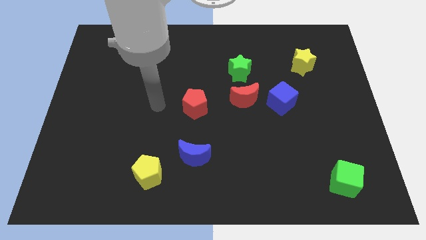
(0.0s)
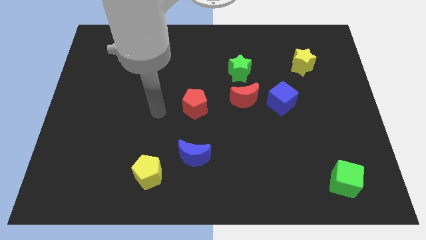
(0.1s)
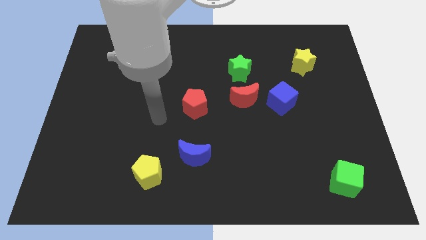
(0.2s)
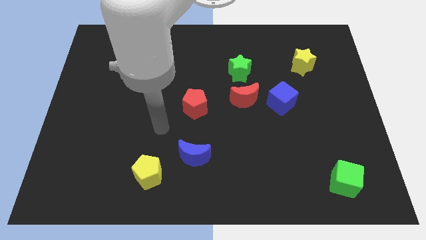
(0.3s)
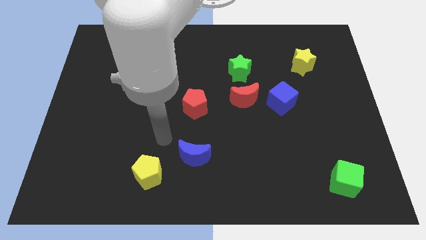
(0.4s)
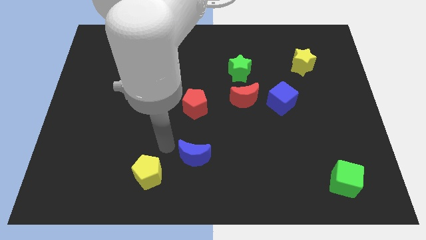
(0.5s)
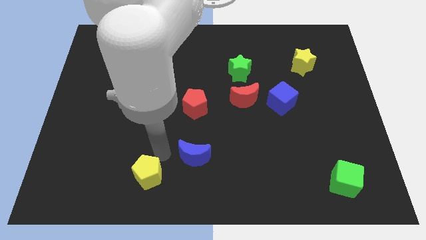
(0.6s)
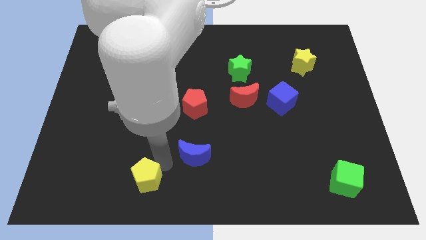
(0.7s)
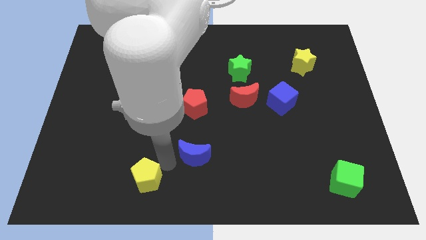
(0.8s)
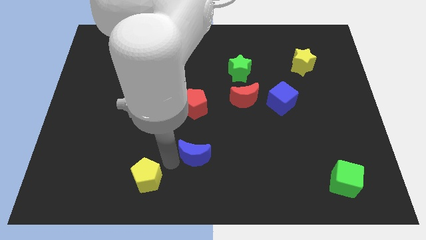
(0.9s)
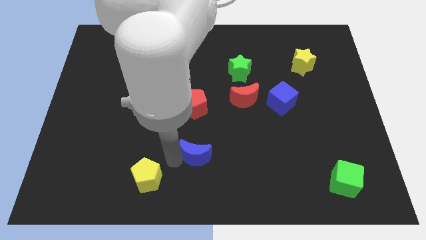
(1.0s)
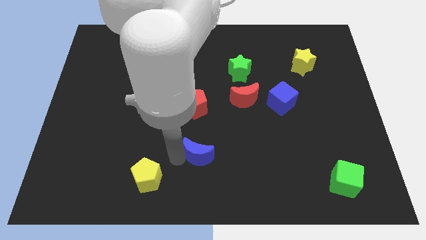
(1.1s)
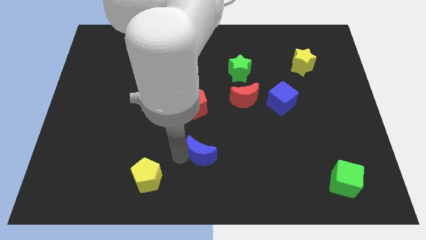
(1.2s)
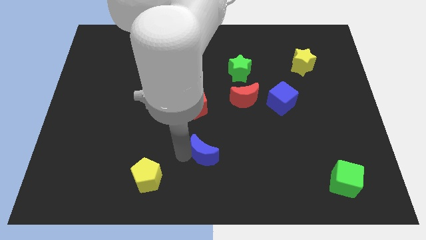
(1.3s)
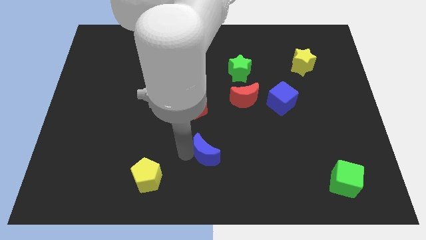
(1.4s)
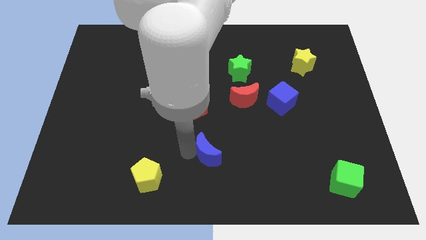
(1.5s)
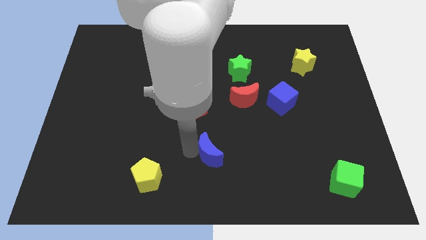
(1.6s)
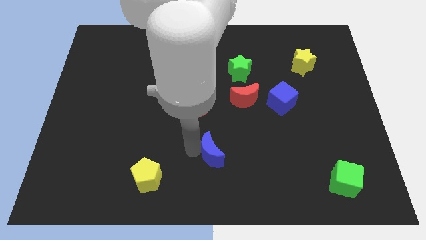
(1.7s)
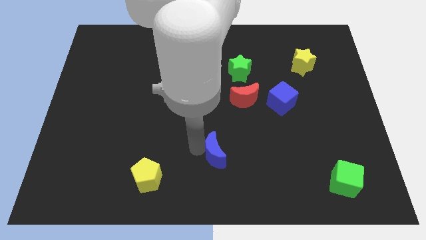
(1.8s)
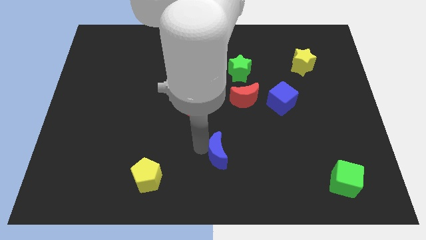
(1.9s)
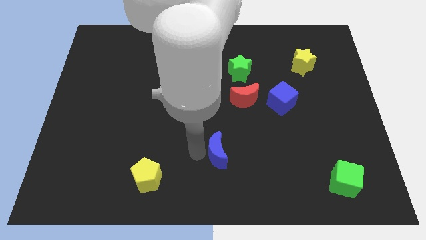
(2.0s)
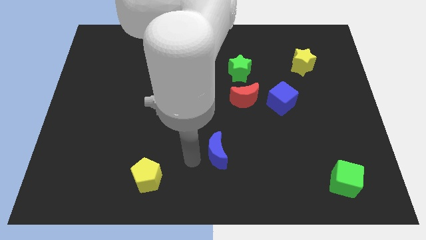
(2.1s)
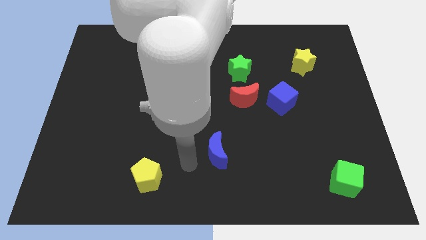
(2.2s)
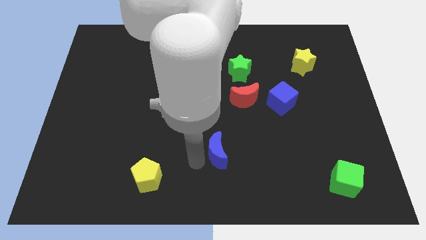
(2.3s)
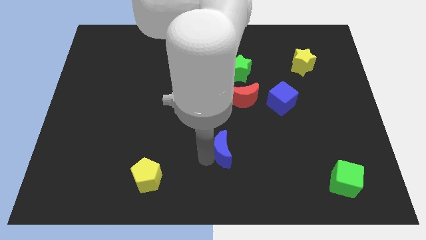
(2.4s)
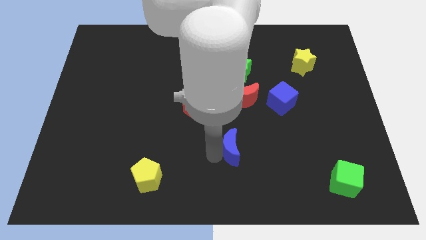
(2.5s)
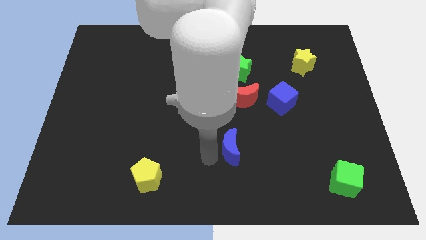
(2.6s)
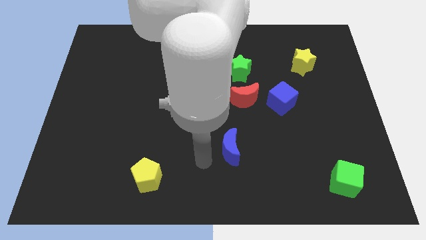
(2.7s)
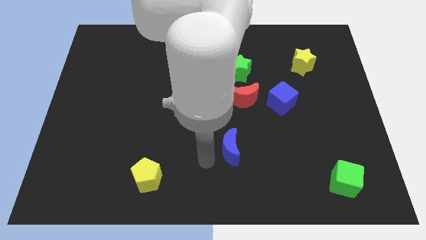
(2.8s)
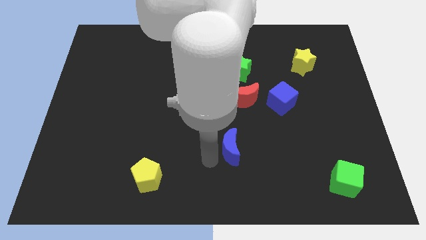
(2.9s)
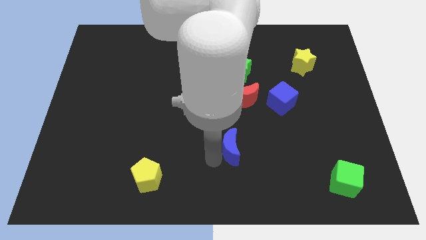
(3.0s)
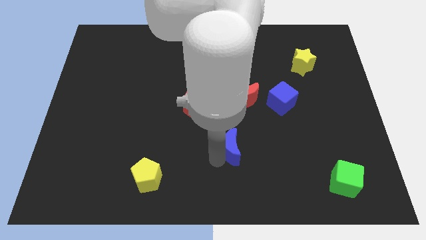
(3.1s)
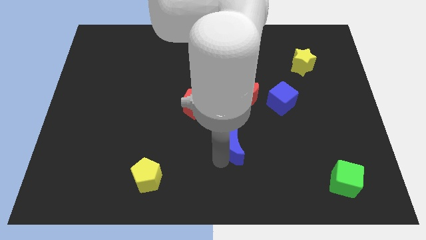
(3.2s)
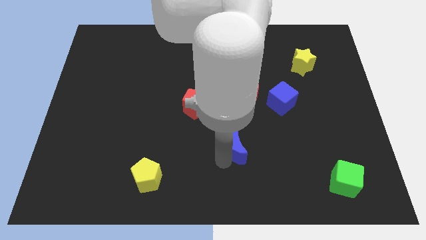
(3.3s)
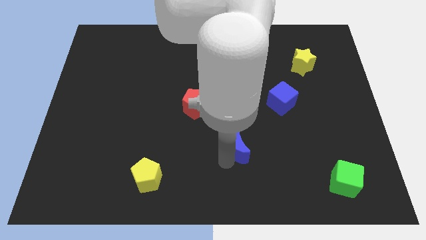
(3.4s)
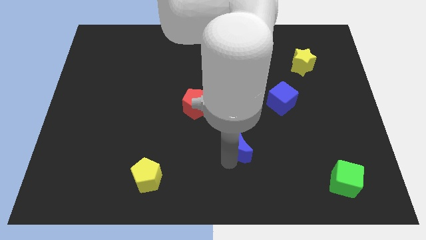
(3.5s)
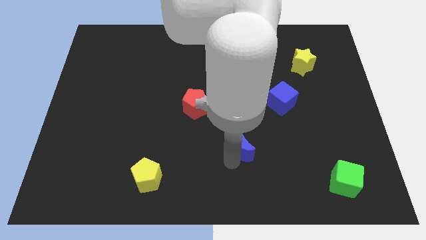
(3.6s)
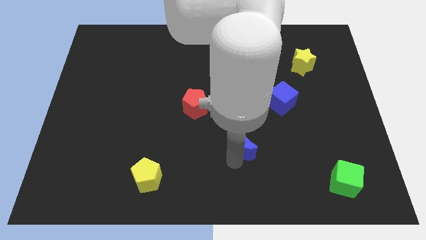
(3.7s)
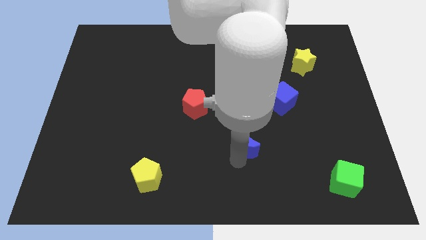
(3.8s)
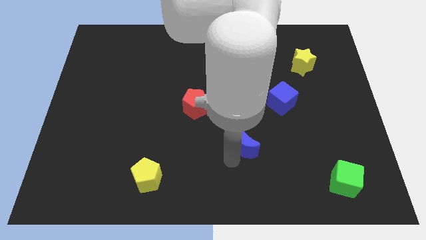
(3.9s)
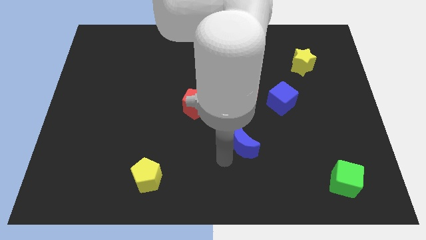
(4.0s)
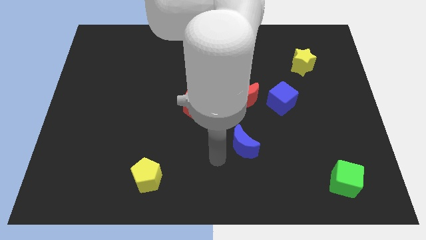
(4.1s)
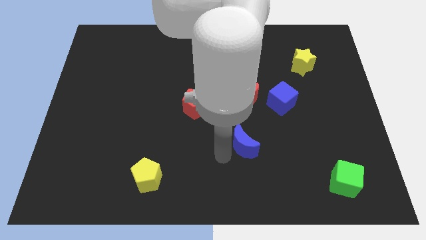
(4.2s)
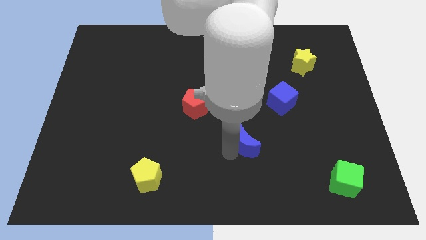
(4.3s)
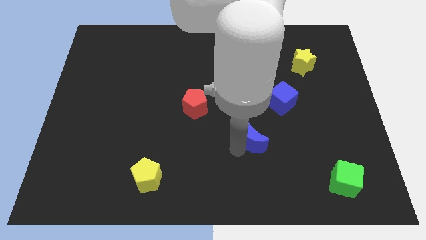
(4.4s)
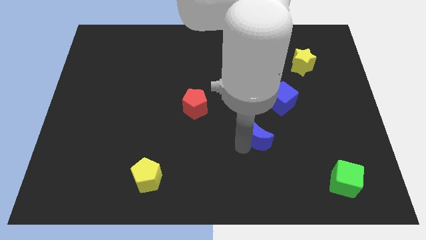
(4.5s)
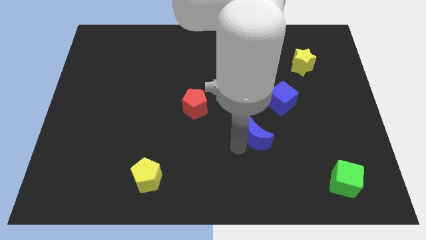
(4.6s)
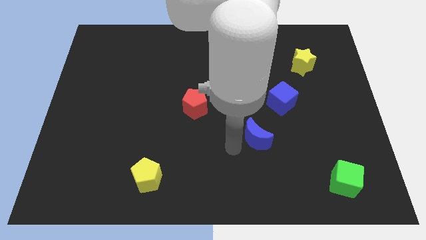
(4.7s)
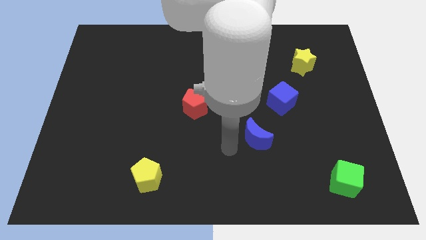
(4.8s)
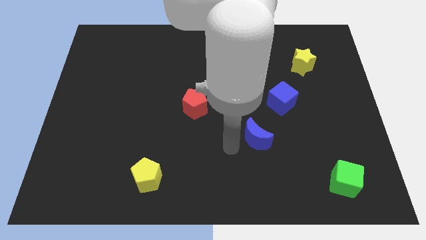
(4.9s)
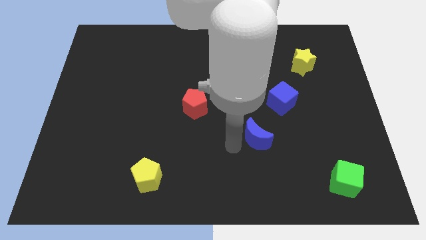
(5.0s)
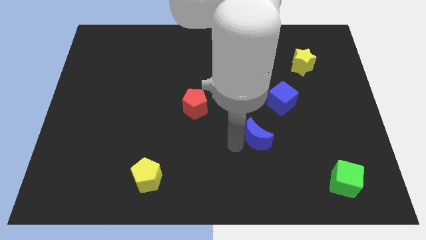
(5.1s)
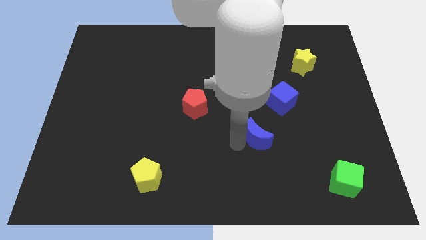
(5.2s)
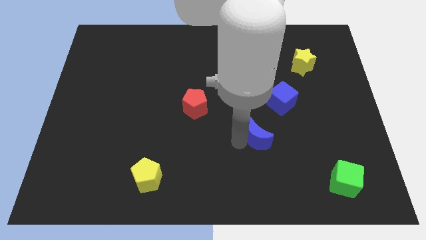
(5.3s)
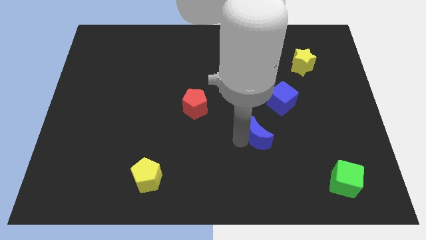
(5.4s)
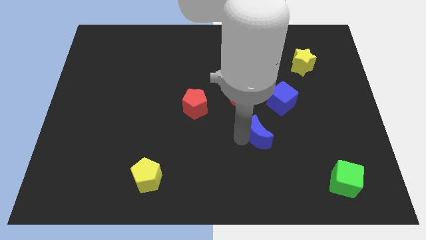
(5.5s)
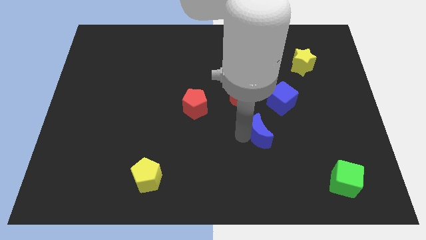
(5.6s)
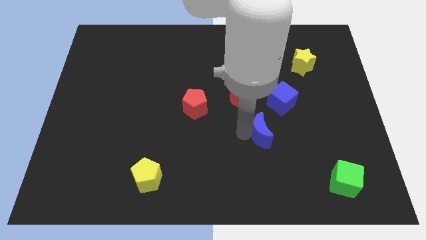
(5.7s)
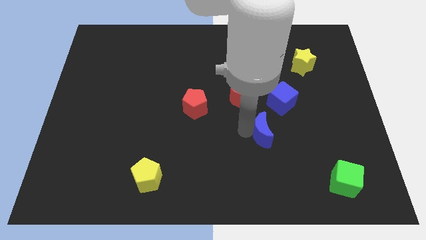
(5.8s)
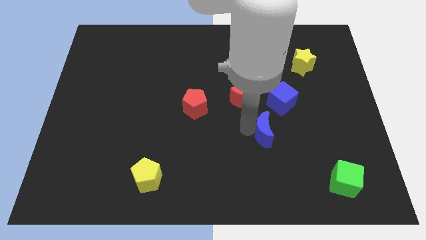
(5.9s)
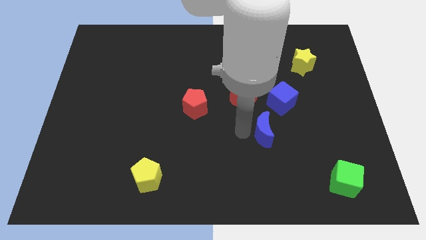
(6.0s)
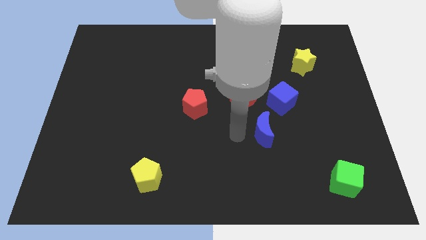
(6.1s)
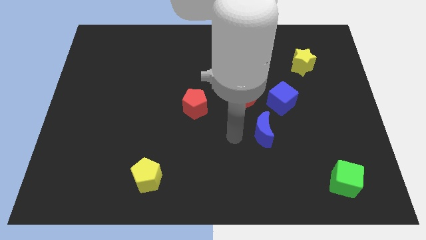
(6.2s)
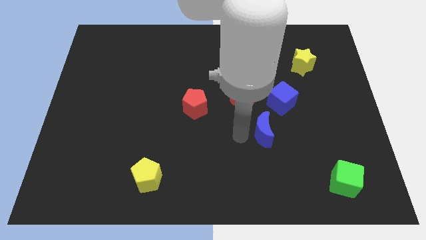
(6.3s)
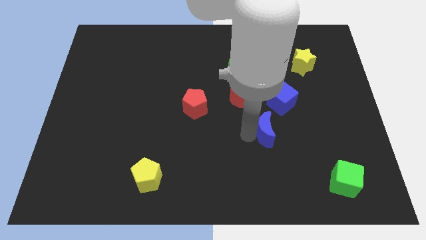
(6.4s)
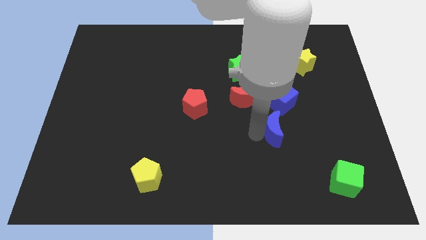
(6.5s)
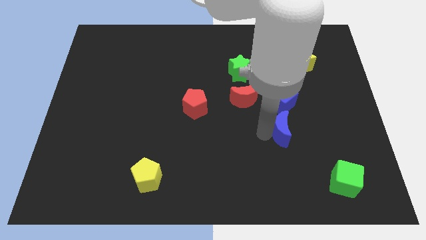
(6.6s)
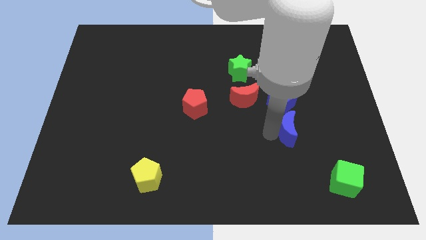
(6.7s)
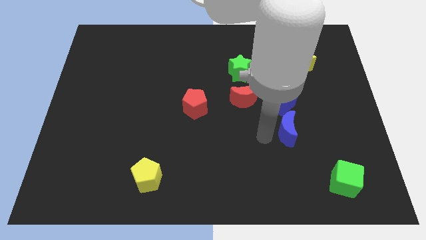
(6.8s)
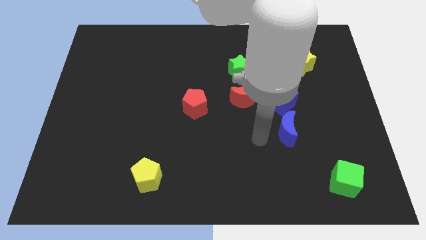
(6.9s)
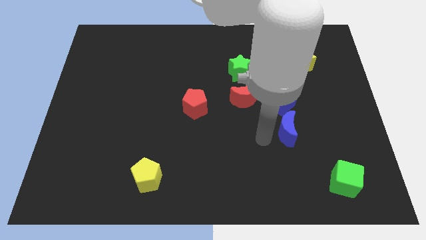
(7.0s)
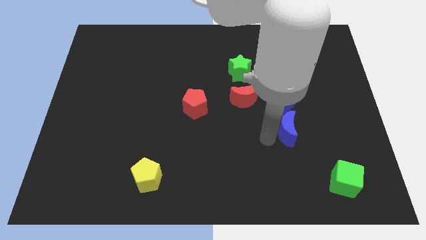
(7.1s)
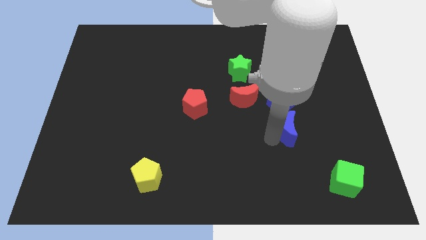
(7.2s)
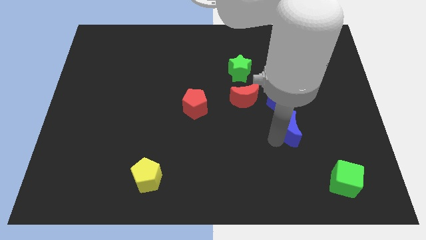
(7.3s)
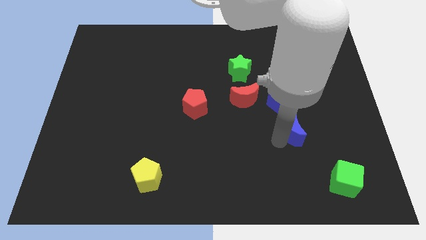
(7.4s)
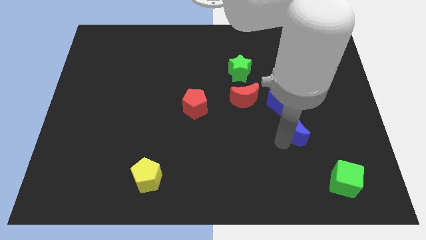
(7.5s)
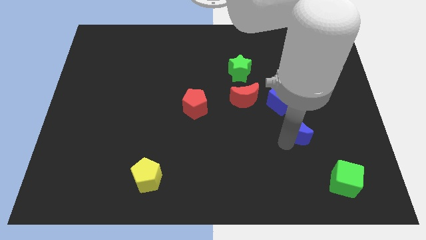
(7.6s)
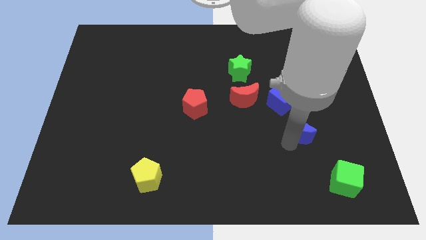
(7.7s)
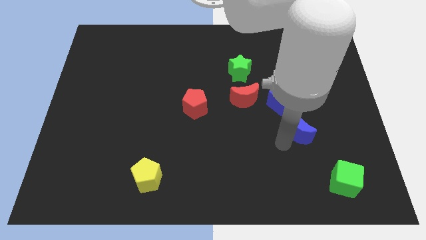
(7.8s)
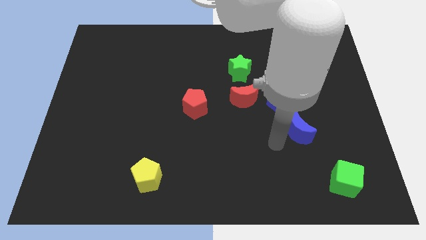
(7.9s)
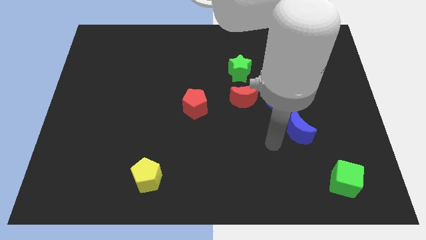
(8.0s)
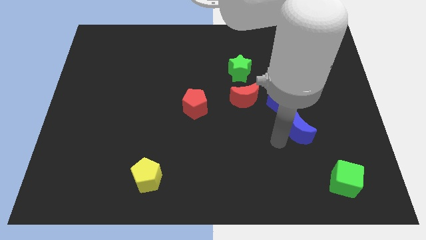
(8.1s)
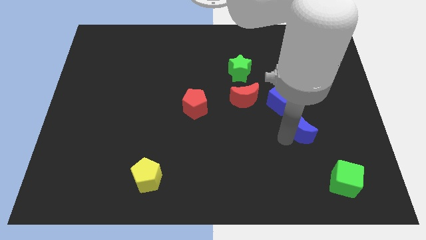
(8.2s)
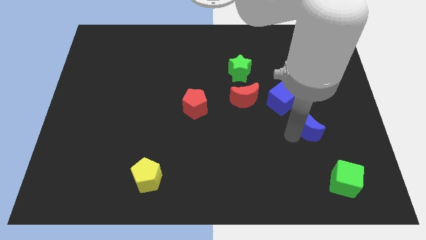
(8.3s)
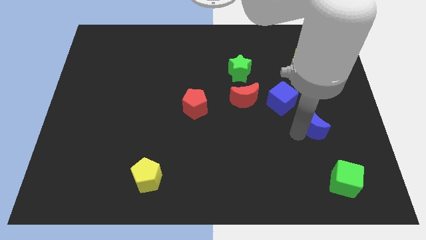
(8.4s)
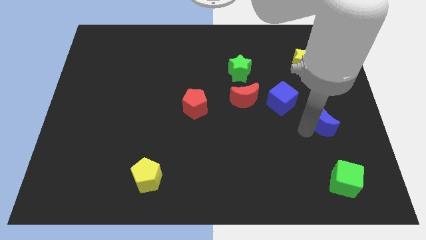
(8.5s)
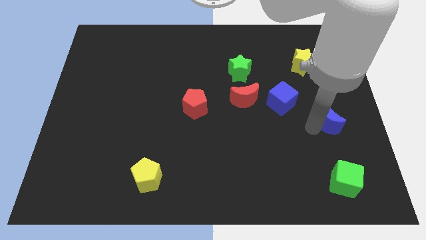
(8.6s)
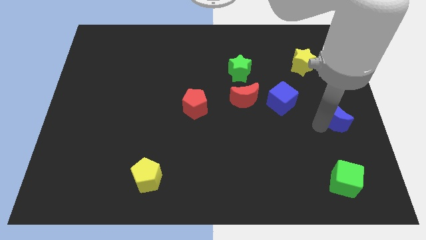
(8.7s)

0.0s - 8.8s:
slide the blue moon to the right side of the board
